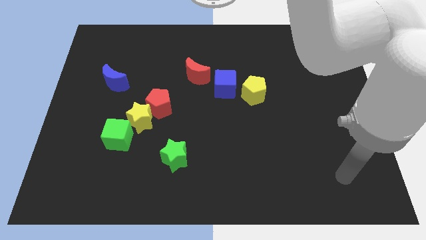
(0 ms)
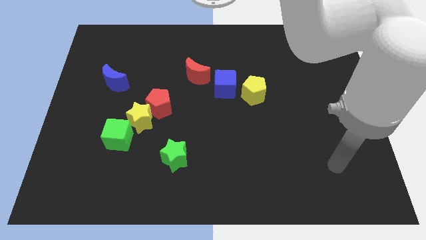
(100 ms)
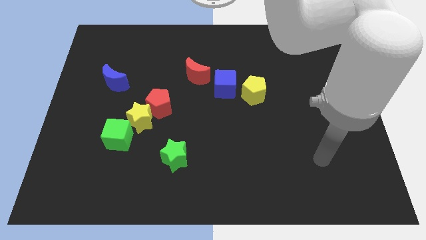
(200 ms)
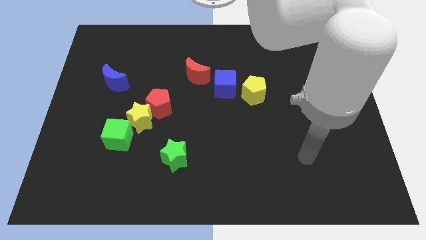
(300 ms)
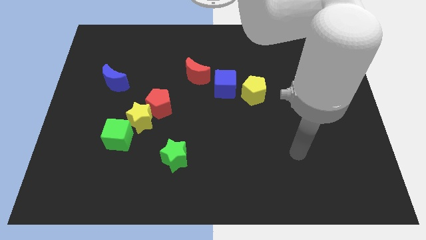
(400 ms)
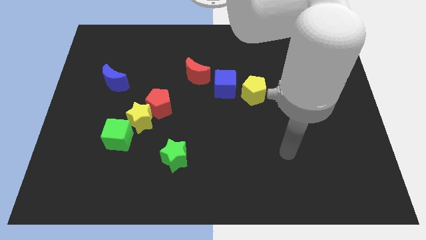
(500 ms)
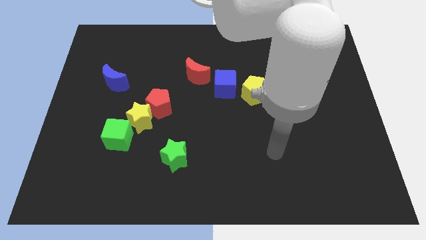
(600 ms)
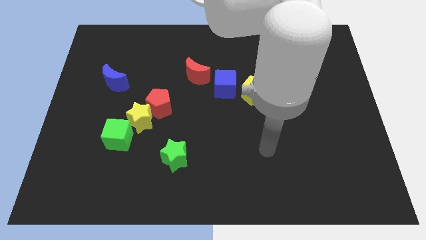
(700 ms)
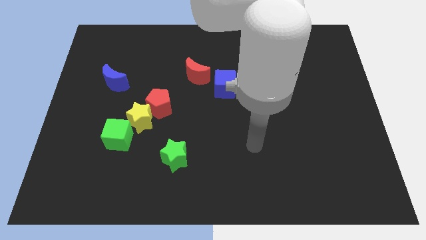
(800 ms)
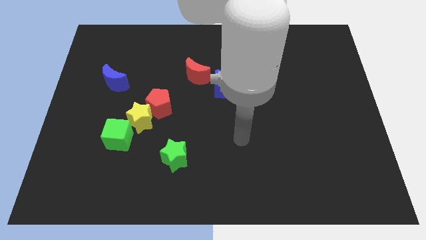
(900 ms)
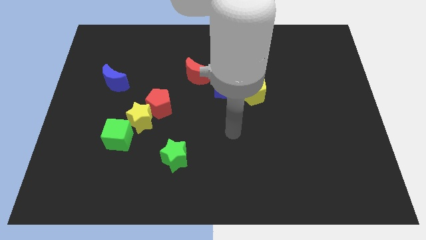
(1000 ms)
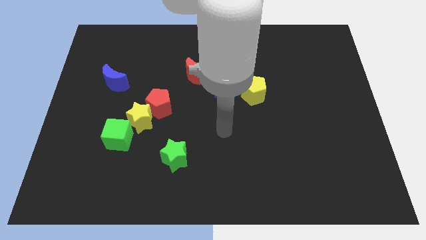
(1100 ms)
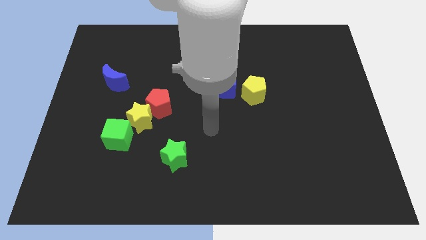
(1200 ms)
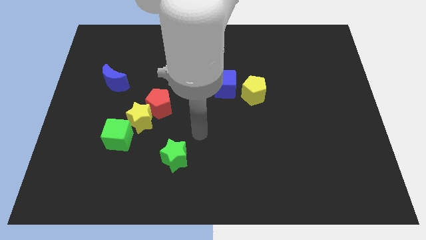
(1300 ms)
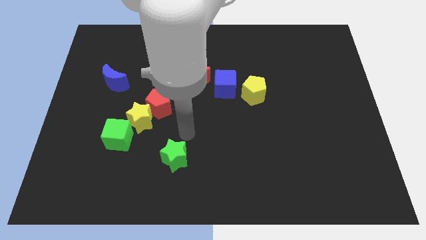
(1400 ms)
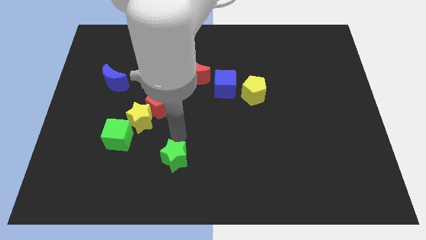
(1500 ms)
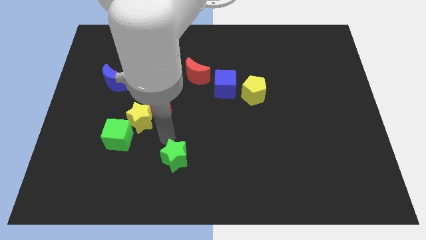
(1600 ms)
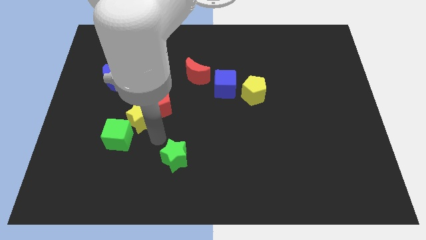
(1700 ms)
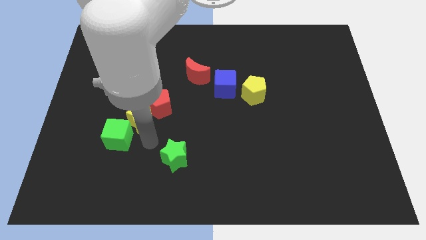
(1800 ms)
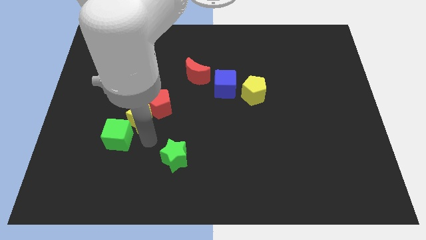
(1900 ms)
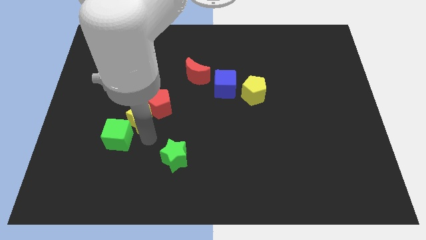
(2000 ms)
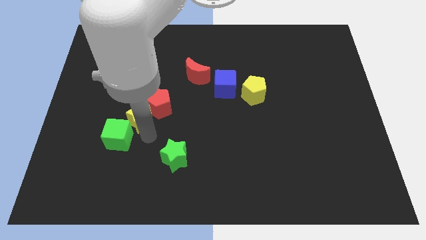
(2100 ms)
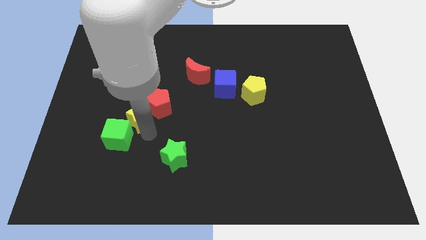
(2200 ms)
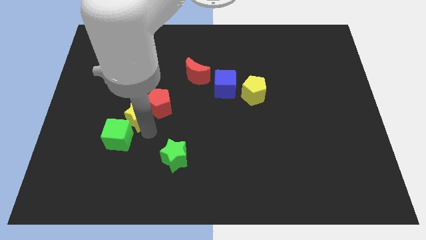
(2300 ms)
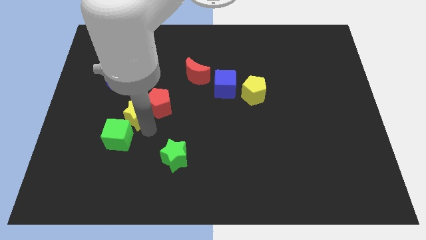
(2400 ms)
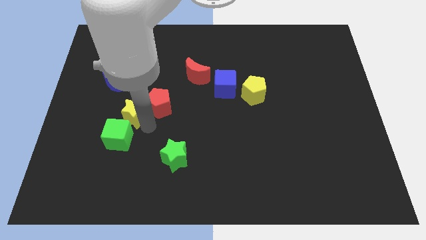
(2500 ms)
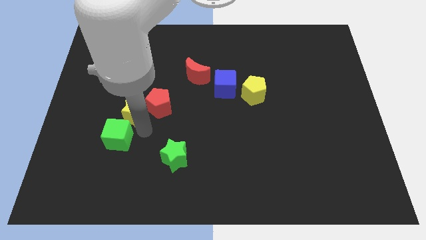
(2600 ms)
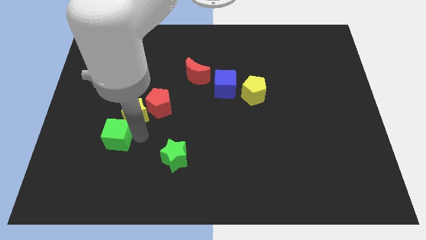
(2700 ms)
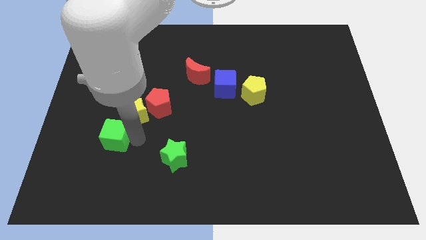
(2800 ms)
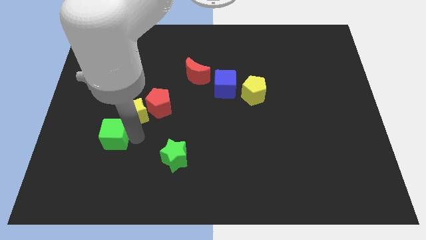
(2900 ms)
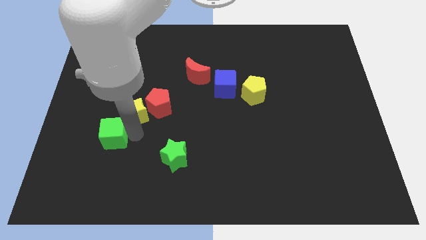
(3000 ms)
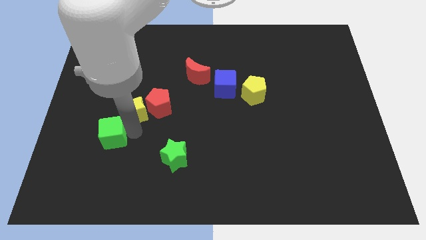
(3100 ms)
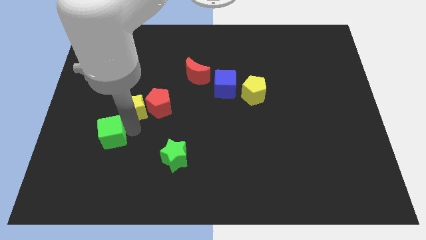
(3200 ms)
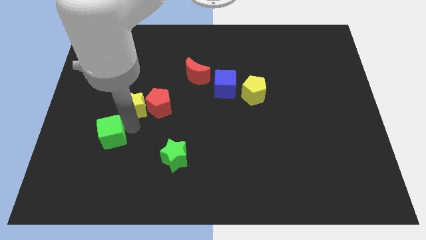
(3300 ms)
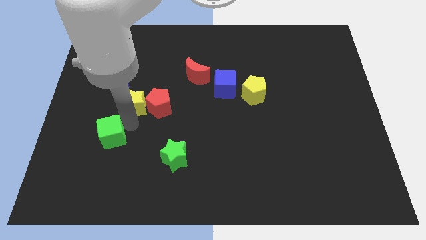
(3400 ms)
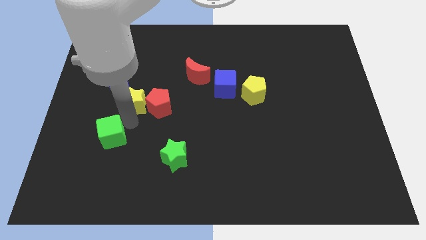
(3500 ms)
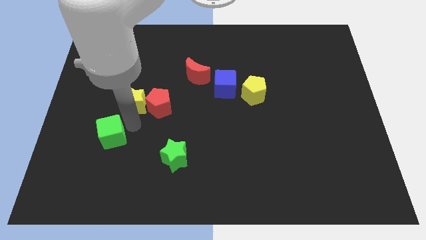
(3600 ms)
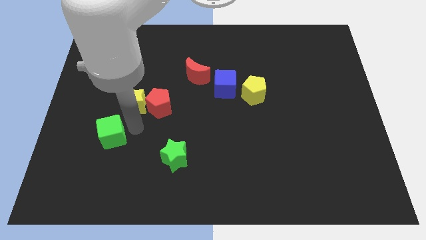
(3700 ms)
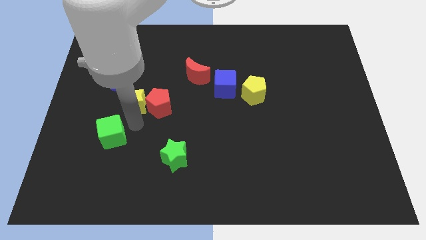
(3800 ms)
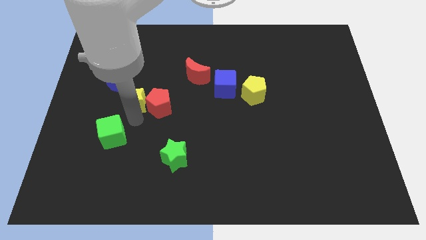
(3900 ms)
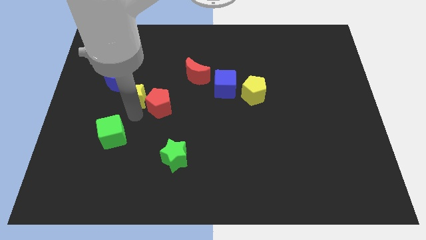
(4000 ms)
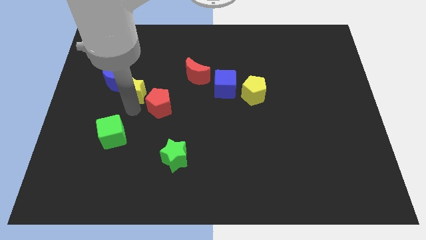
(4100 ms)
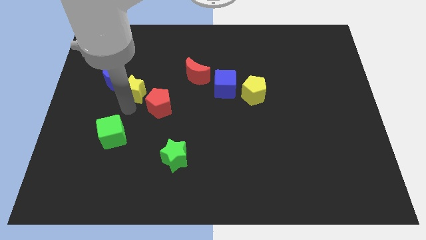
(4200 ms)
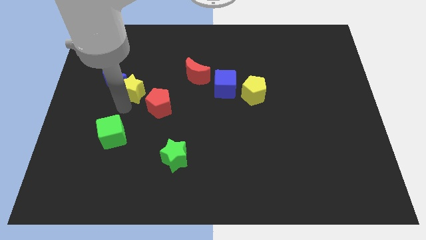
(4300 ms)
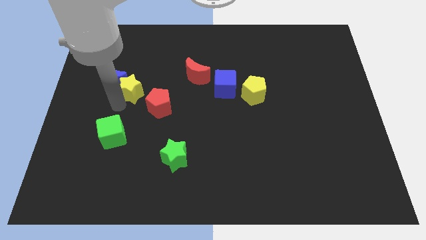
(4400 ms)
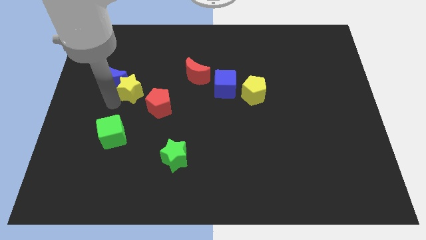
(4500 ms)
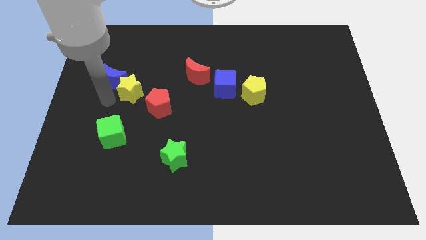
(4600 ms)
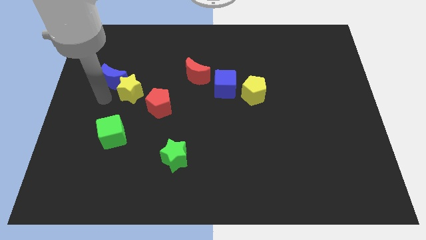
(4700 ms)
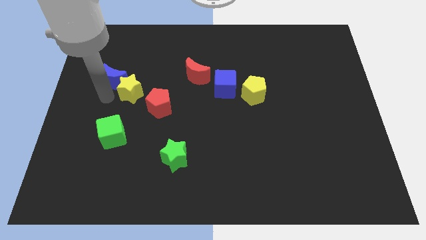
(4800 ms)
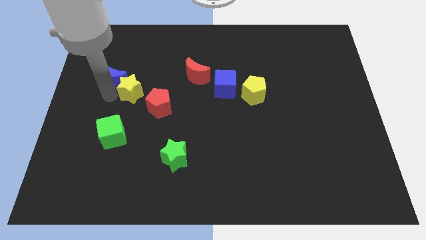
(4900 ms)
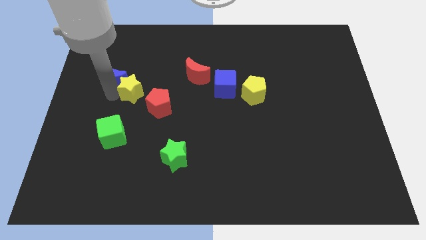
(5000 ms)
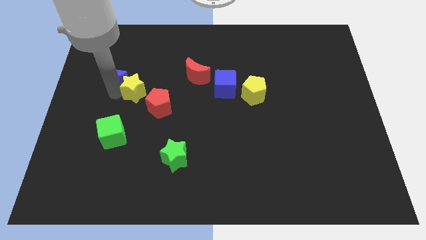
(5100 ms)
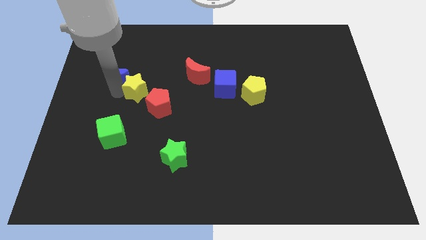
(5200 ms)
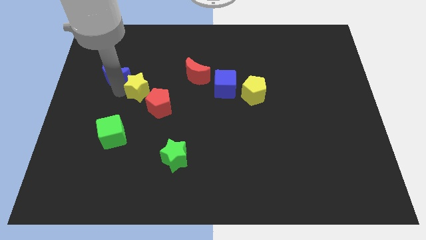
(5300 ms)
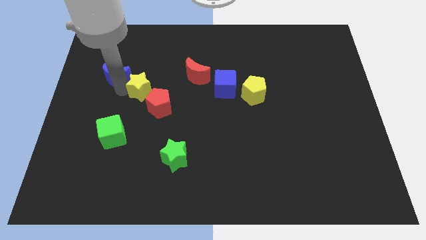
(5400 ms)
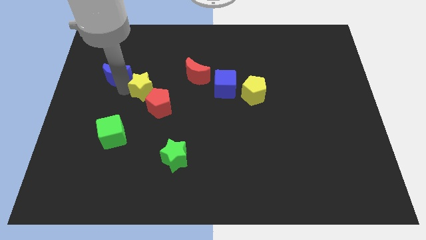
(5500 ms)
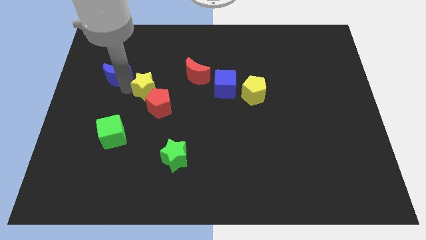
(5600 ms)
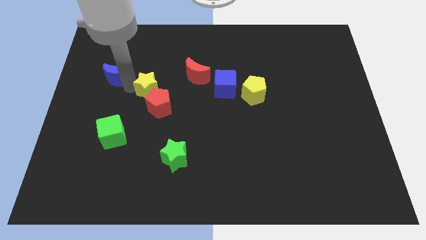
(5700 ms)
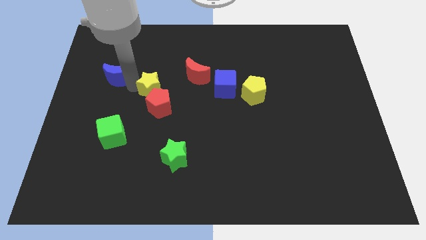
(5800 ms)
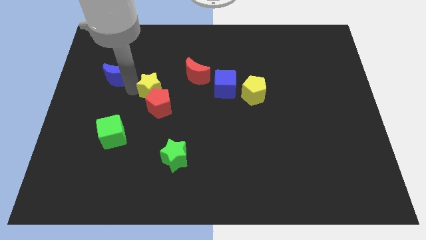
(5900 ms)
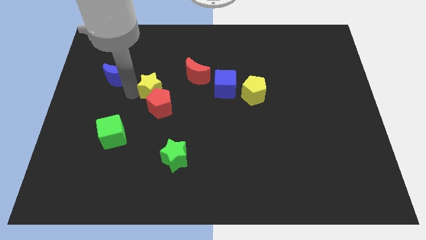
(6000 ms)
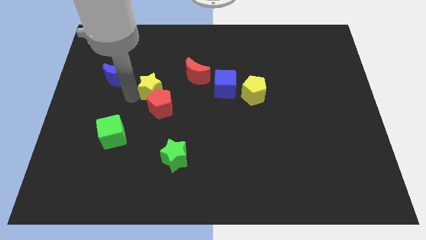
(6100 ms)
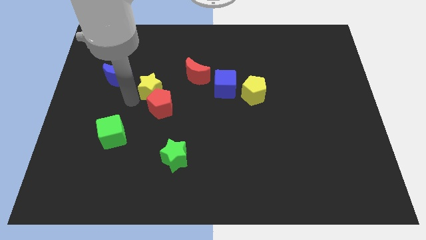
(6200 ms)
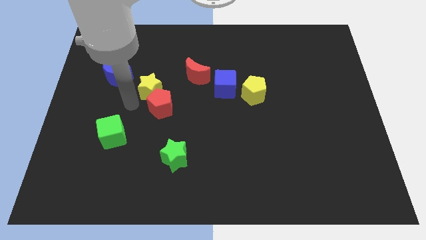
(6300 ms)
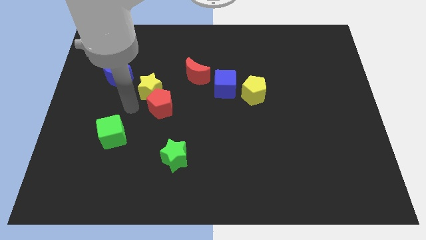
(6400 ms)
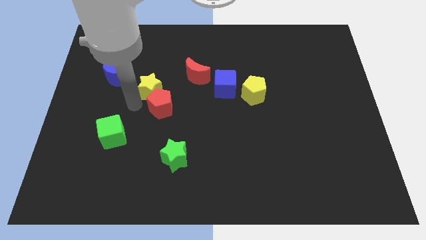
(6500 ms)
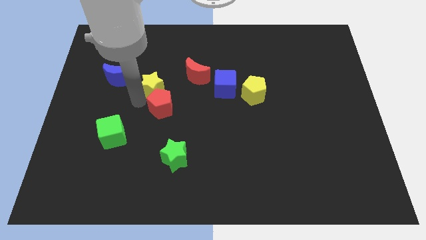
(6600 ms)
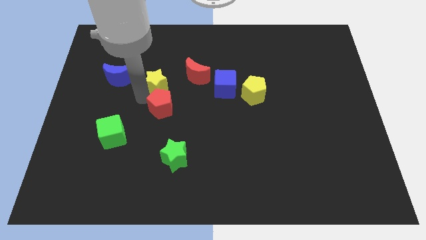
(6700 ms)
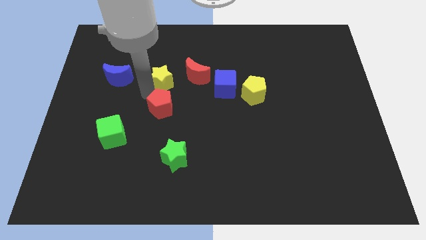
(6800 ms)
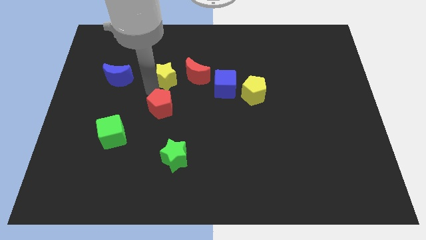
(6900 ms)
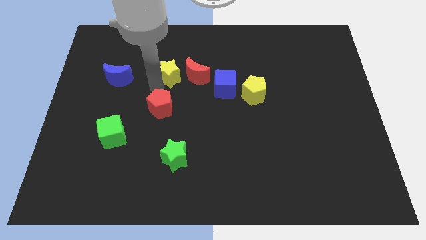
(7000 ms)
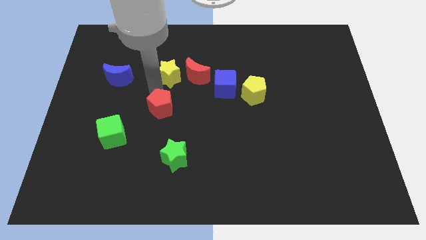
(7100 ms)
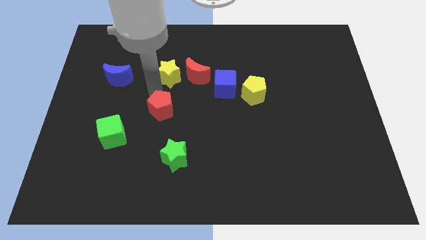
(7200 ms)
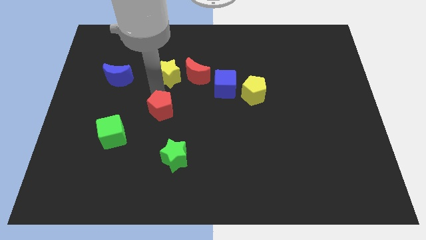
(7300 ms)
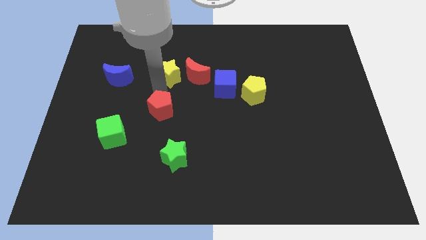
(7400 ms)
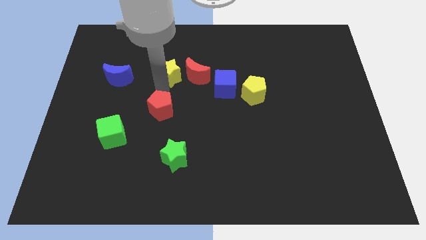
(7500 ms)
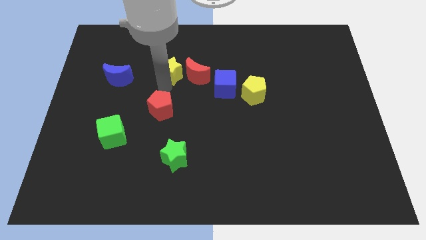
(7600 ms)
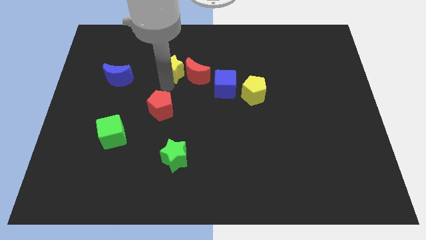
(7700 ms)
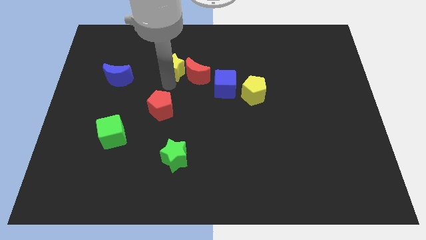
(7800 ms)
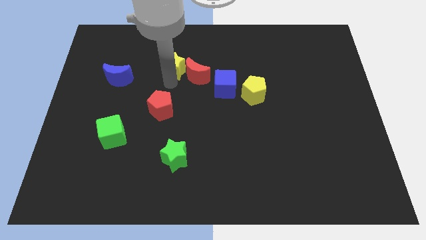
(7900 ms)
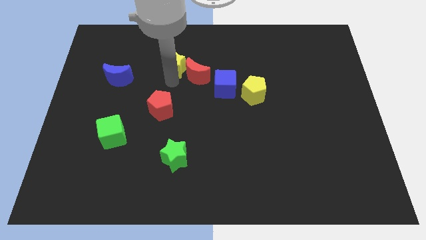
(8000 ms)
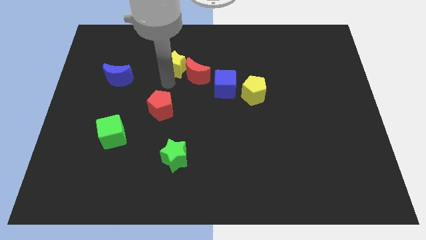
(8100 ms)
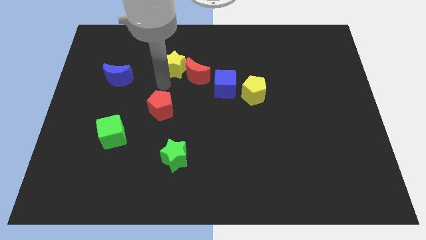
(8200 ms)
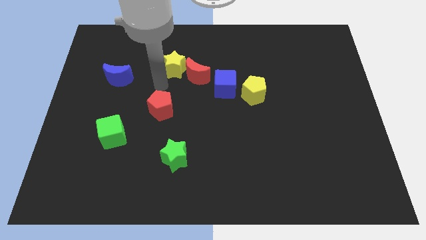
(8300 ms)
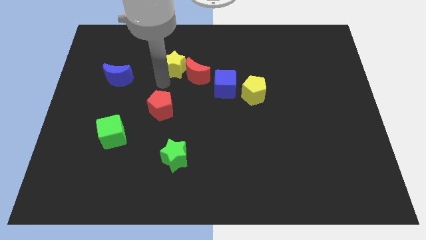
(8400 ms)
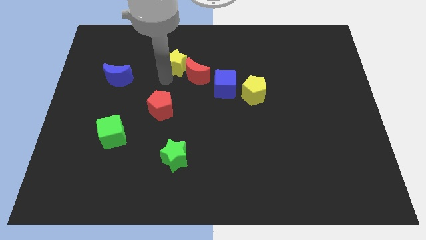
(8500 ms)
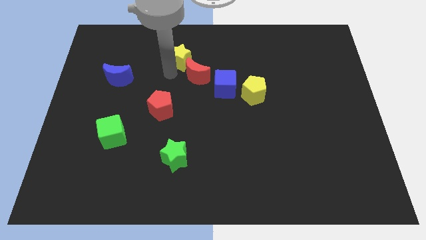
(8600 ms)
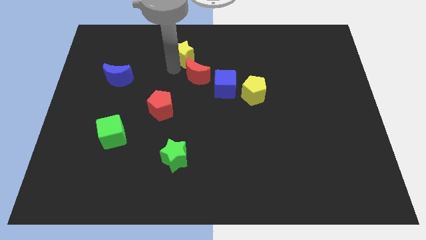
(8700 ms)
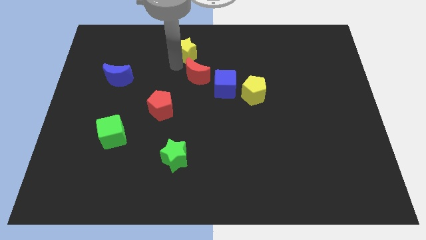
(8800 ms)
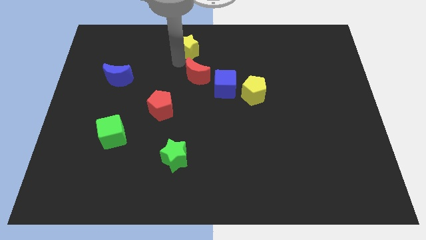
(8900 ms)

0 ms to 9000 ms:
slide the yellow star to the top side
